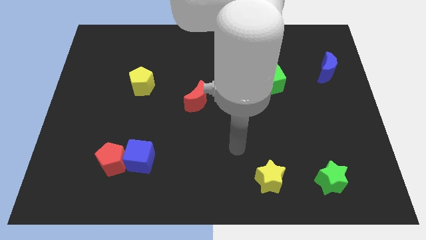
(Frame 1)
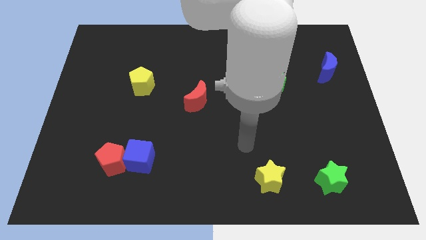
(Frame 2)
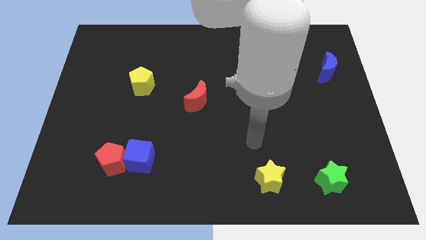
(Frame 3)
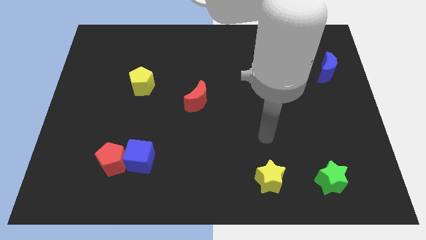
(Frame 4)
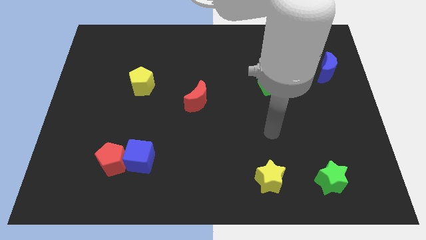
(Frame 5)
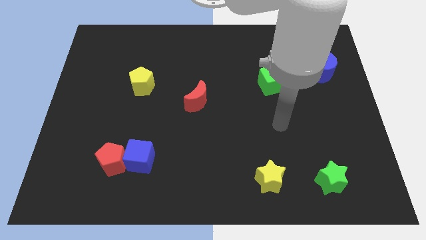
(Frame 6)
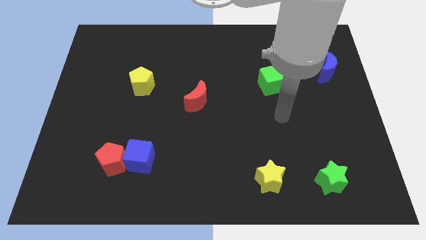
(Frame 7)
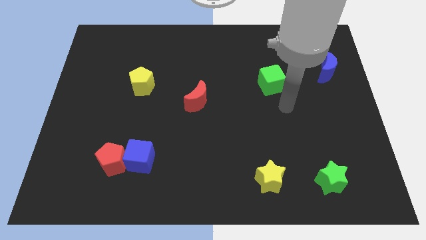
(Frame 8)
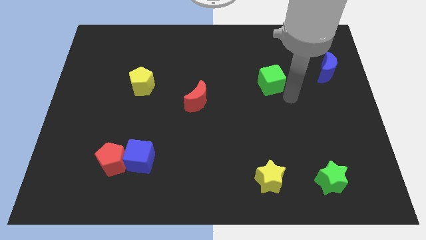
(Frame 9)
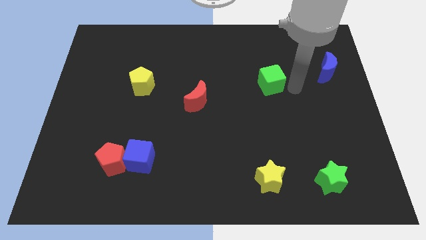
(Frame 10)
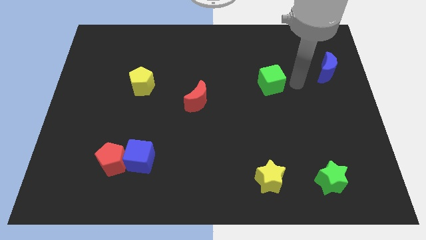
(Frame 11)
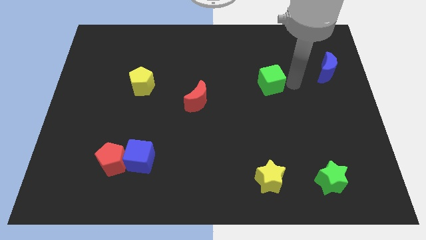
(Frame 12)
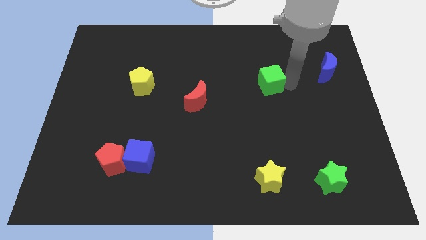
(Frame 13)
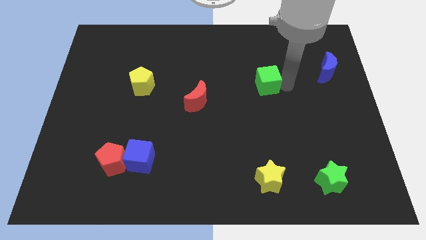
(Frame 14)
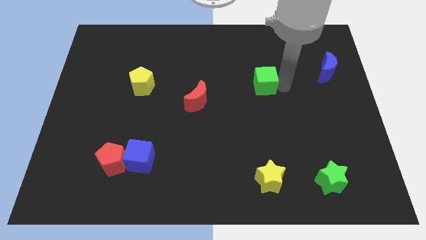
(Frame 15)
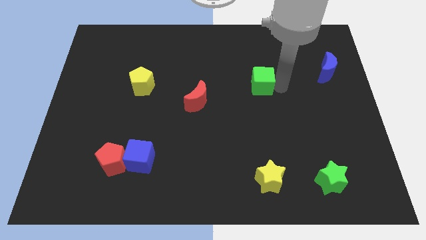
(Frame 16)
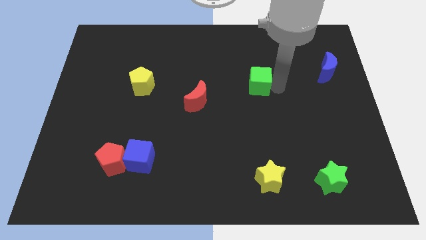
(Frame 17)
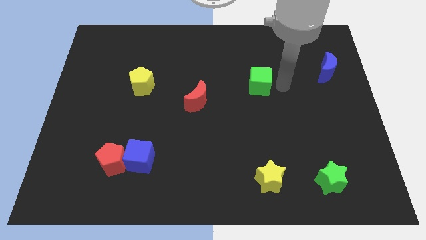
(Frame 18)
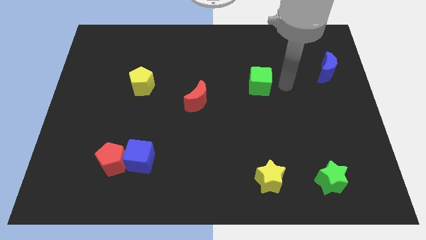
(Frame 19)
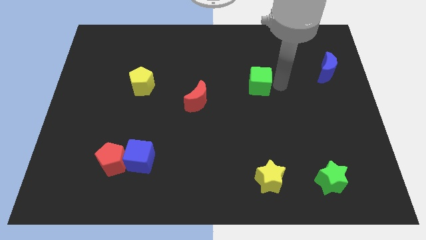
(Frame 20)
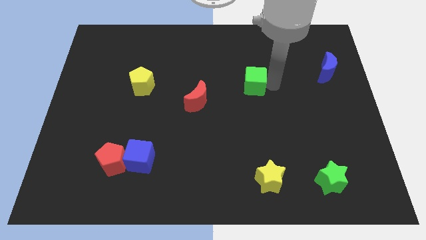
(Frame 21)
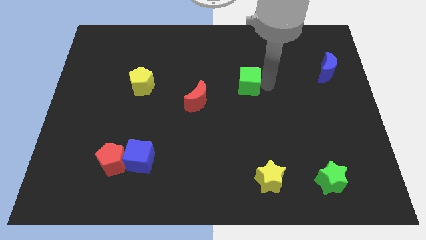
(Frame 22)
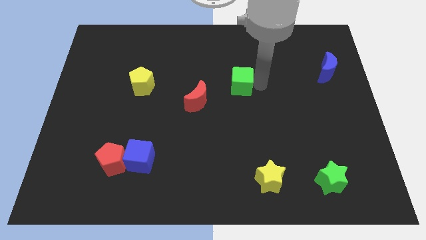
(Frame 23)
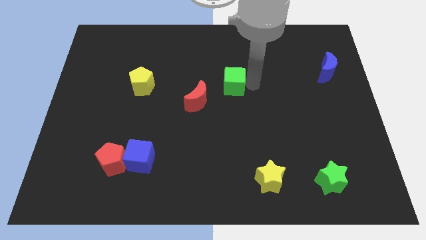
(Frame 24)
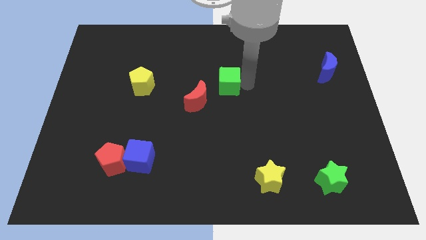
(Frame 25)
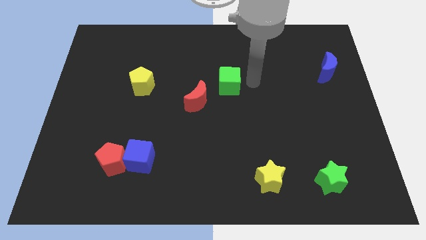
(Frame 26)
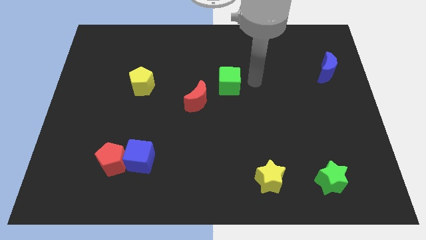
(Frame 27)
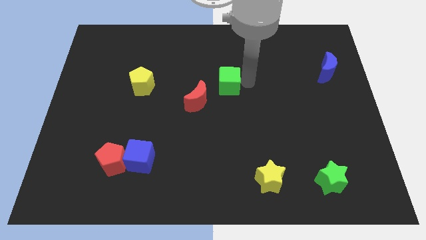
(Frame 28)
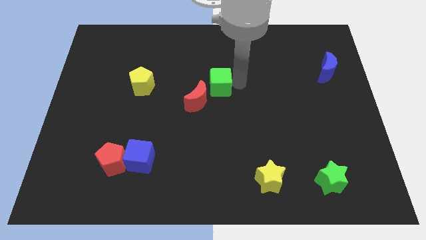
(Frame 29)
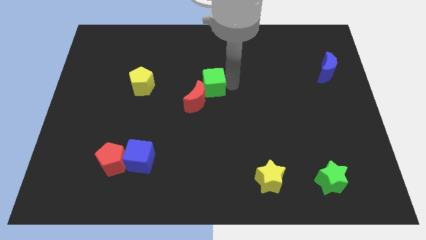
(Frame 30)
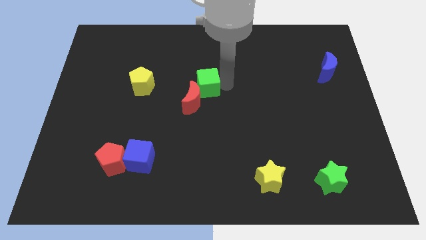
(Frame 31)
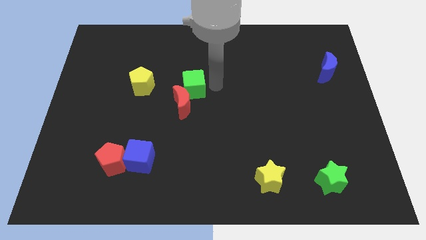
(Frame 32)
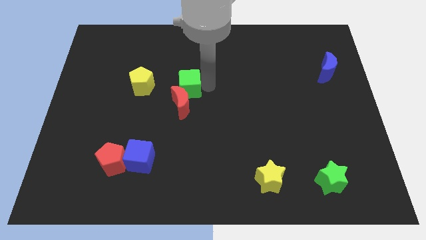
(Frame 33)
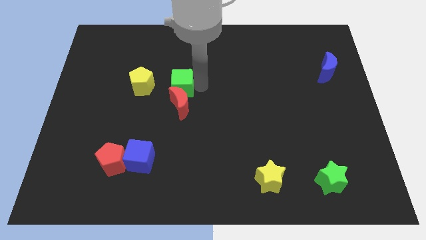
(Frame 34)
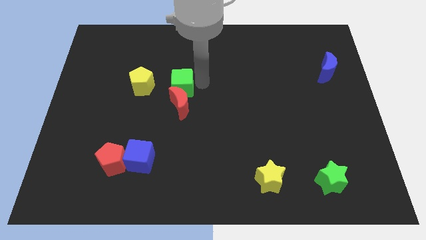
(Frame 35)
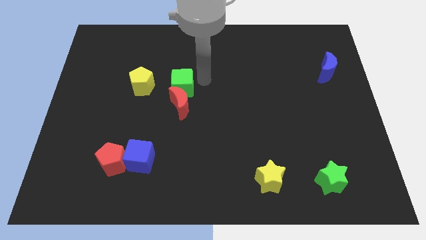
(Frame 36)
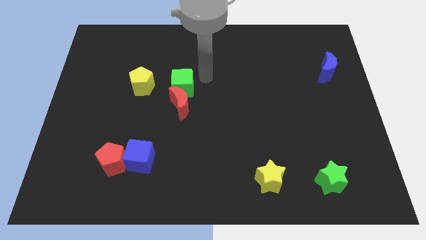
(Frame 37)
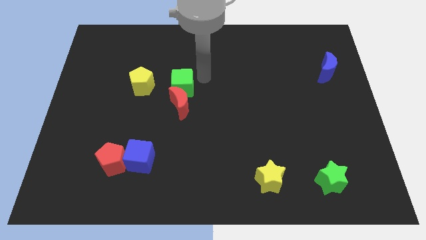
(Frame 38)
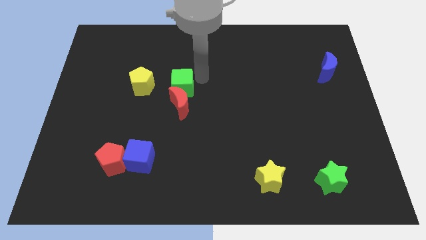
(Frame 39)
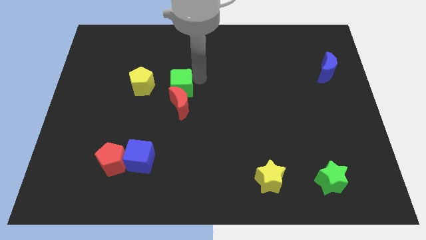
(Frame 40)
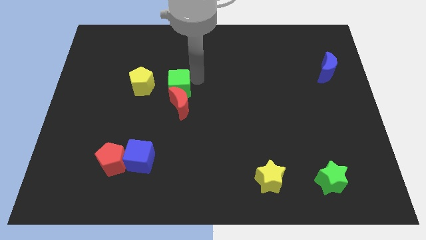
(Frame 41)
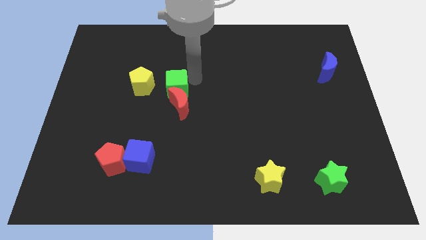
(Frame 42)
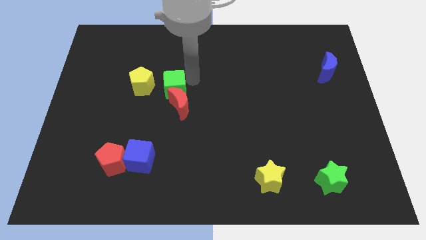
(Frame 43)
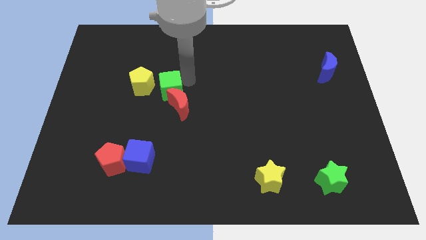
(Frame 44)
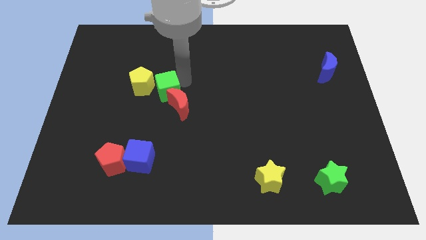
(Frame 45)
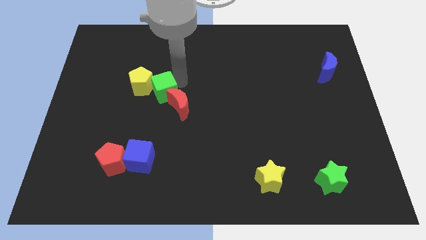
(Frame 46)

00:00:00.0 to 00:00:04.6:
push the green cube to the left side of the red moon

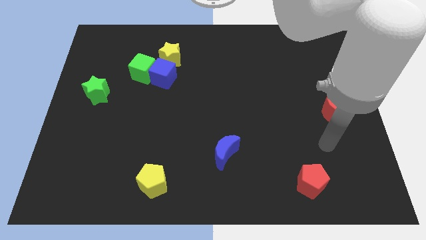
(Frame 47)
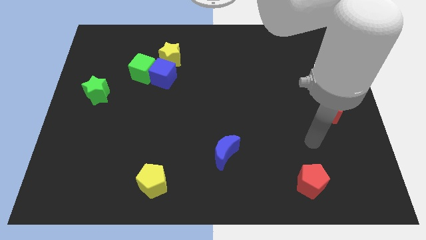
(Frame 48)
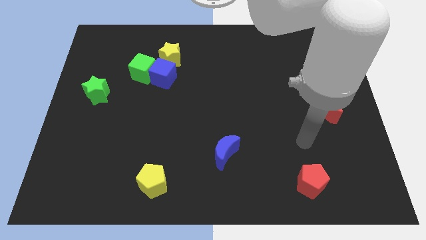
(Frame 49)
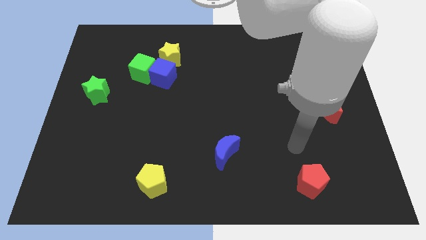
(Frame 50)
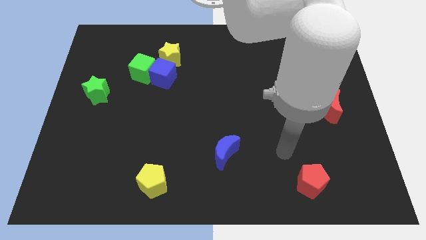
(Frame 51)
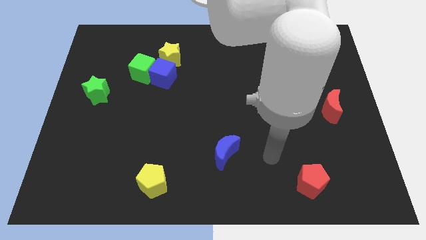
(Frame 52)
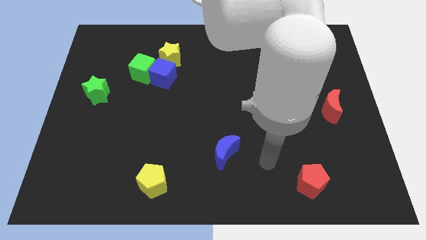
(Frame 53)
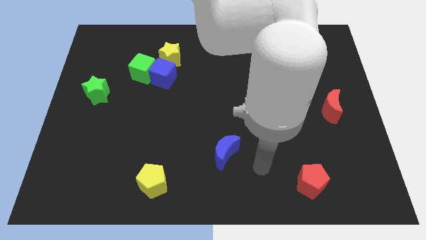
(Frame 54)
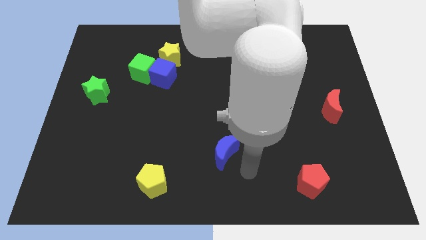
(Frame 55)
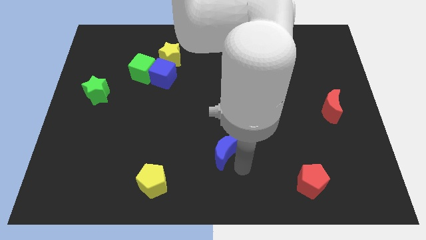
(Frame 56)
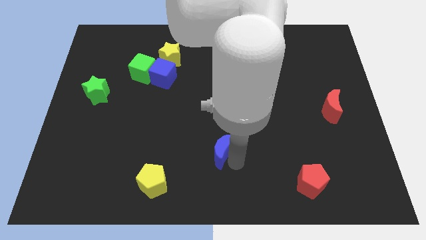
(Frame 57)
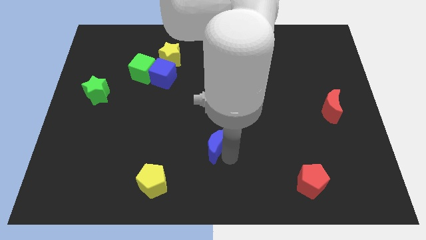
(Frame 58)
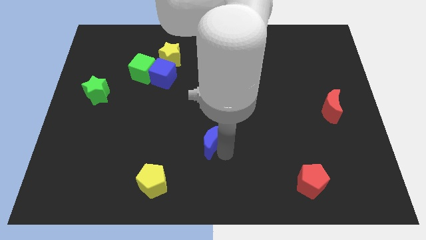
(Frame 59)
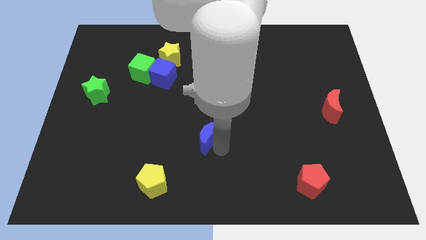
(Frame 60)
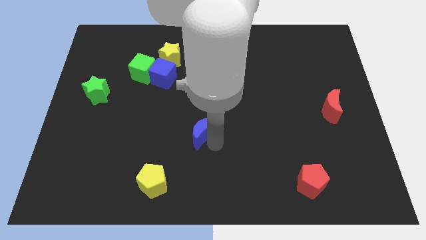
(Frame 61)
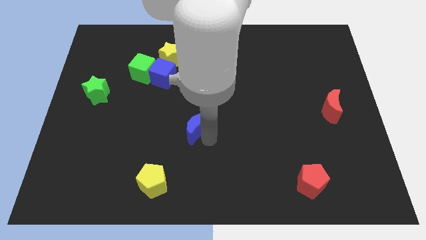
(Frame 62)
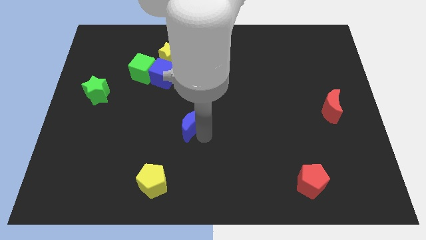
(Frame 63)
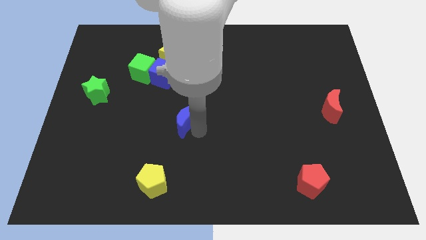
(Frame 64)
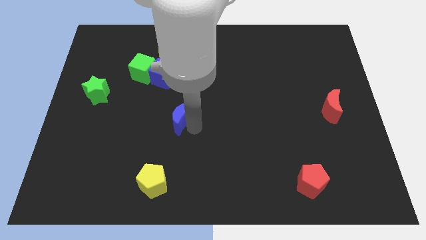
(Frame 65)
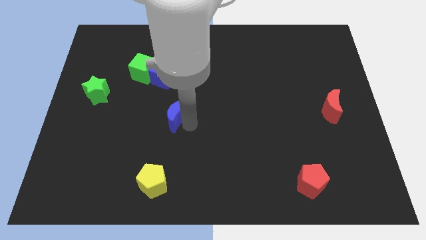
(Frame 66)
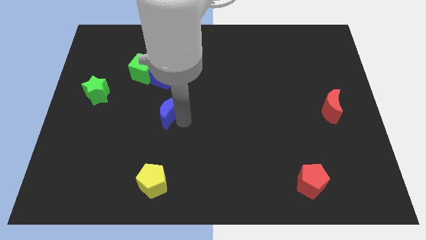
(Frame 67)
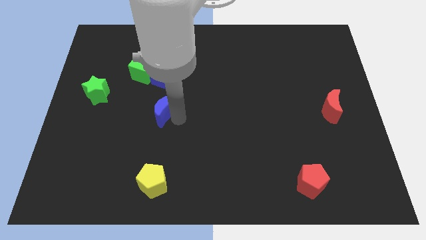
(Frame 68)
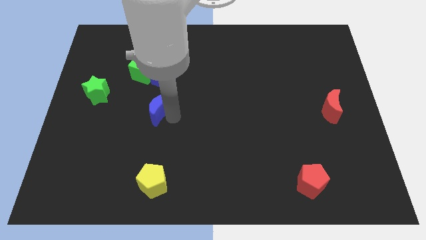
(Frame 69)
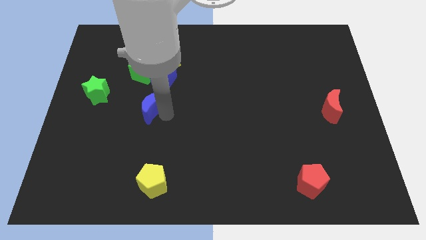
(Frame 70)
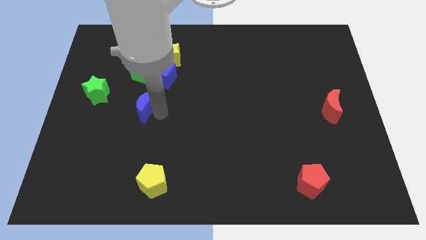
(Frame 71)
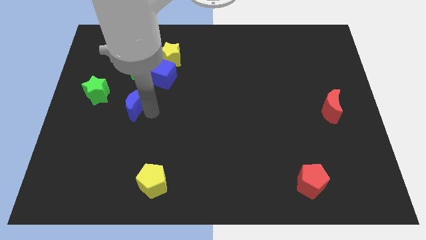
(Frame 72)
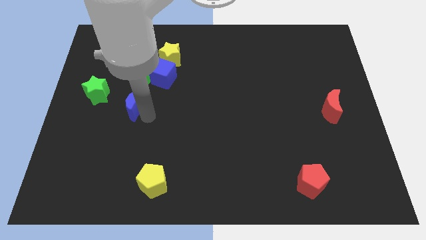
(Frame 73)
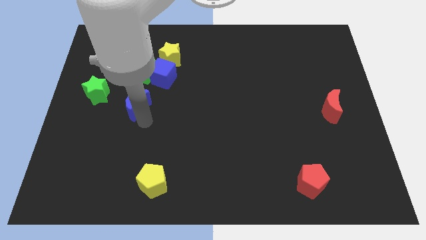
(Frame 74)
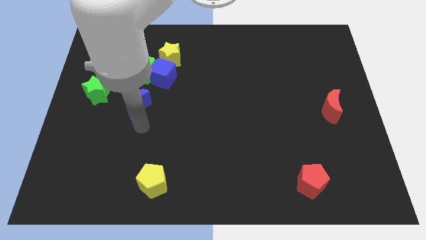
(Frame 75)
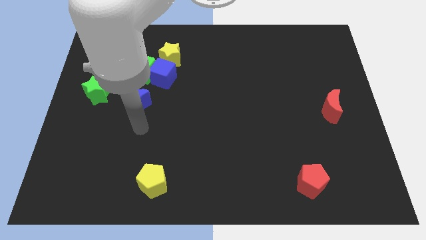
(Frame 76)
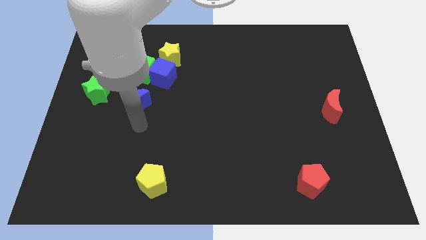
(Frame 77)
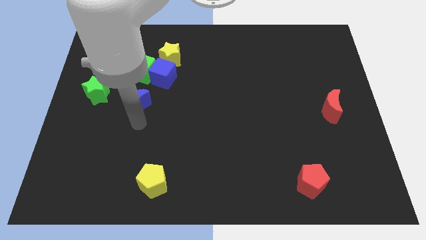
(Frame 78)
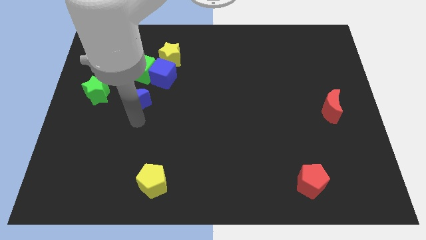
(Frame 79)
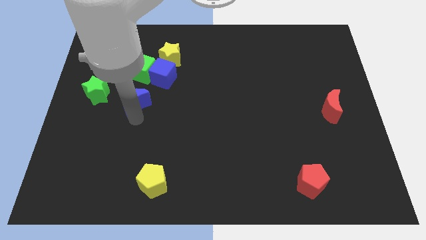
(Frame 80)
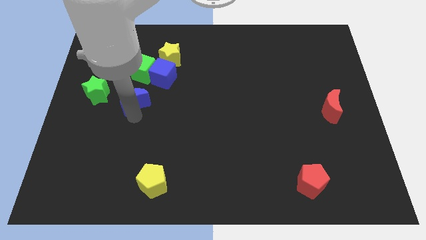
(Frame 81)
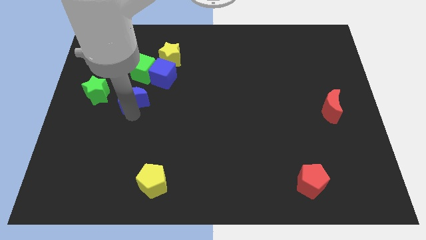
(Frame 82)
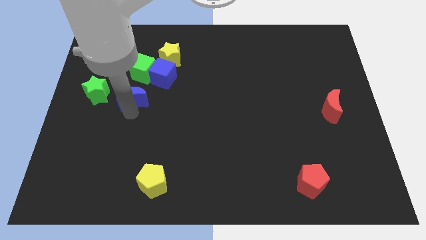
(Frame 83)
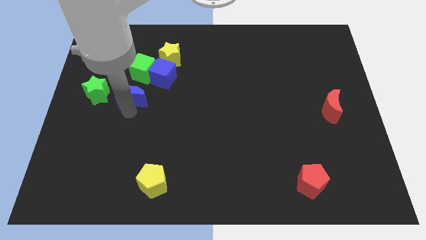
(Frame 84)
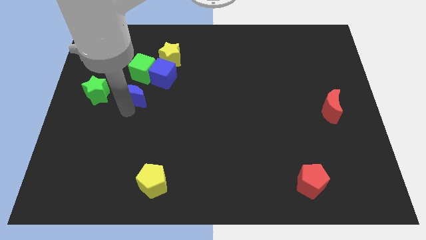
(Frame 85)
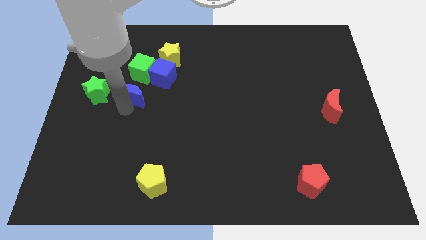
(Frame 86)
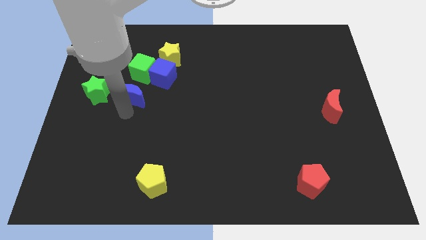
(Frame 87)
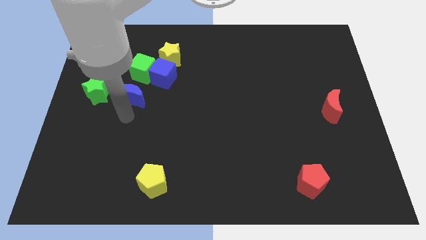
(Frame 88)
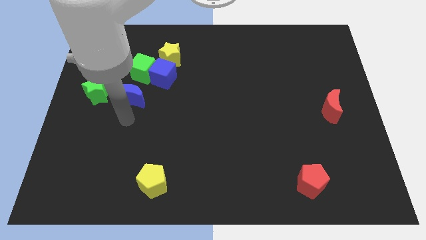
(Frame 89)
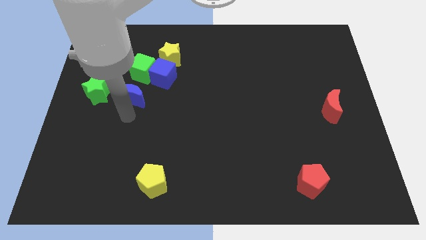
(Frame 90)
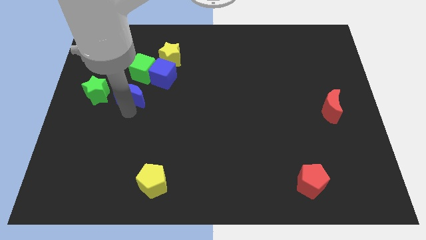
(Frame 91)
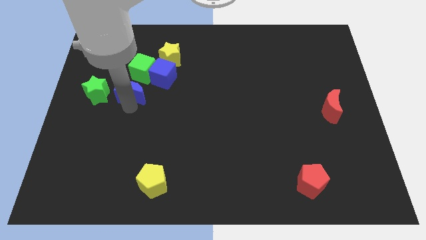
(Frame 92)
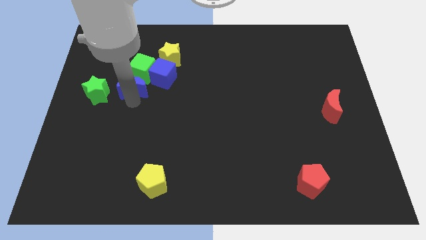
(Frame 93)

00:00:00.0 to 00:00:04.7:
move the blue moon diagonally up and to the right of the green star
